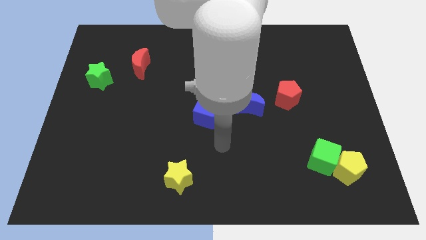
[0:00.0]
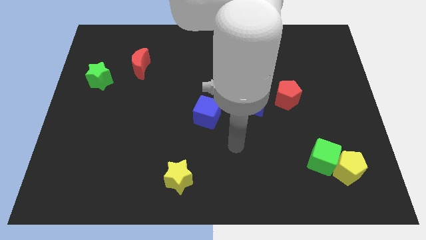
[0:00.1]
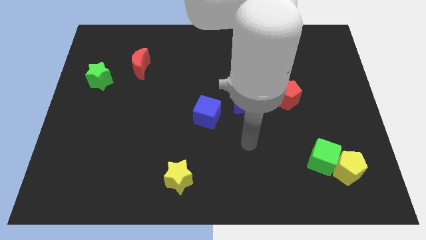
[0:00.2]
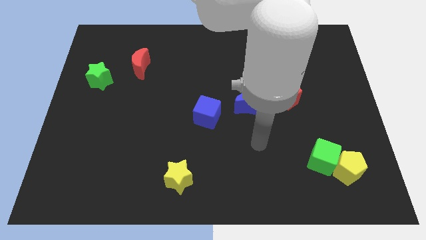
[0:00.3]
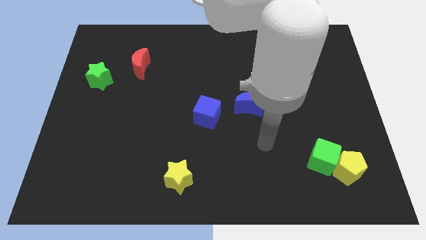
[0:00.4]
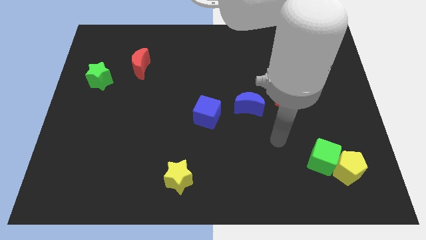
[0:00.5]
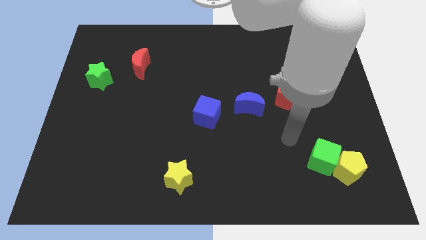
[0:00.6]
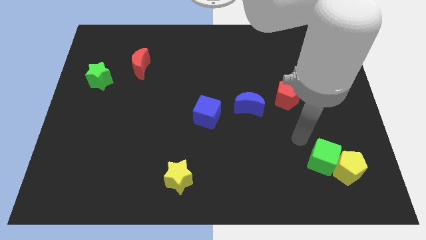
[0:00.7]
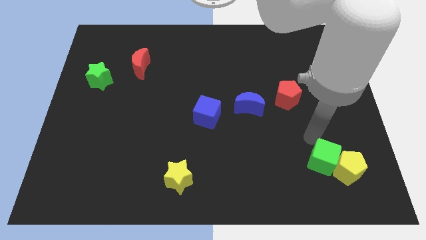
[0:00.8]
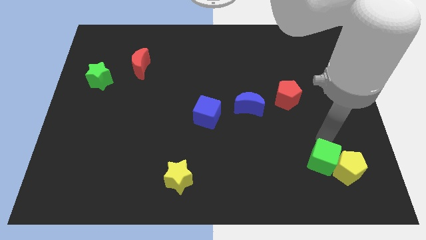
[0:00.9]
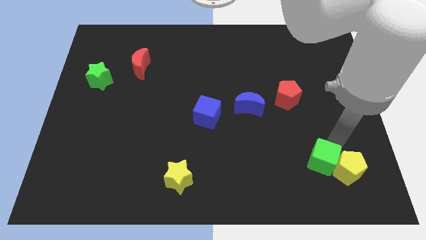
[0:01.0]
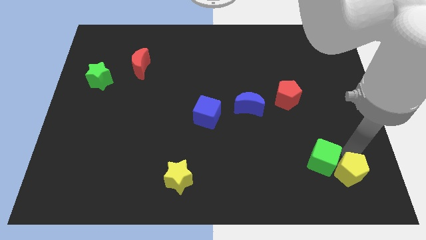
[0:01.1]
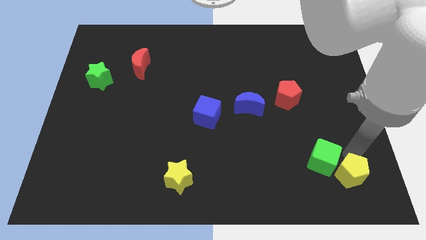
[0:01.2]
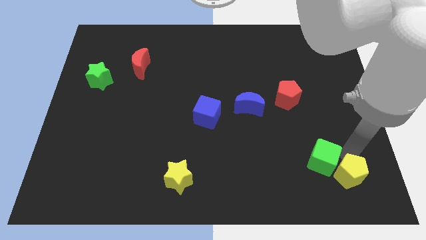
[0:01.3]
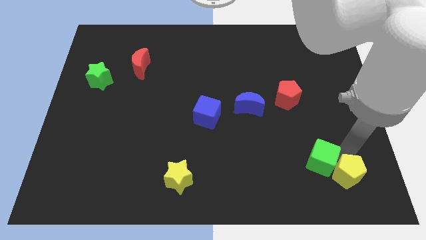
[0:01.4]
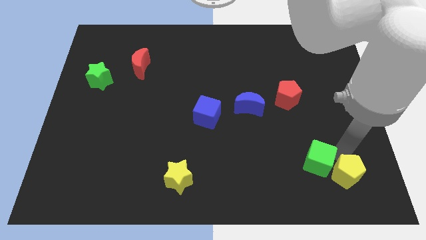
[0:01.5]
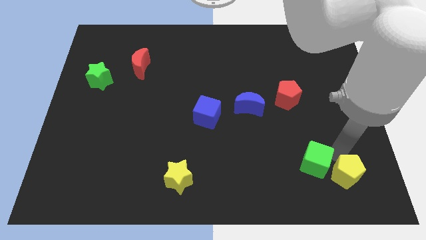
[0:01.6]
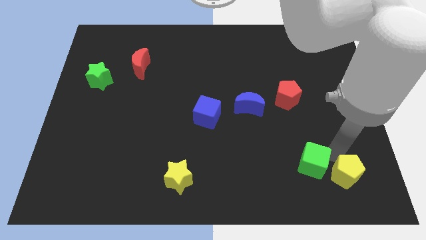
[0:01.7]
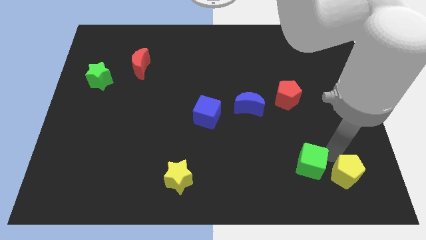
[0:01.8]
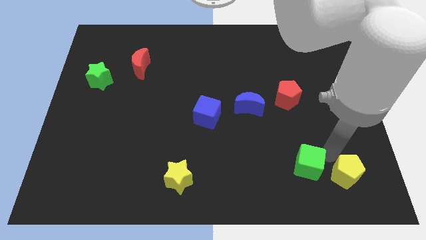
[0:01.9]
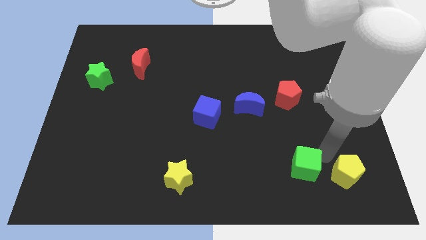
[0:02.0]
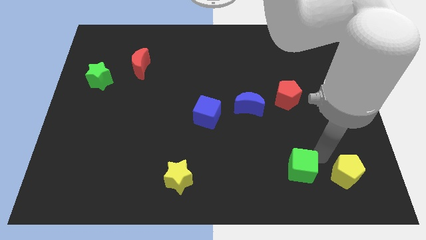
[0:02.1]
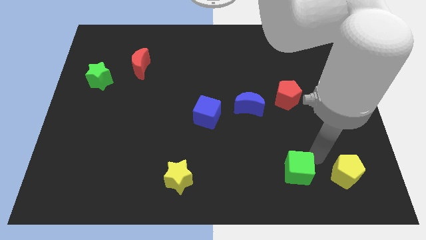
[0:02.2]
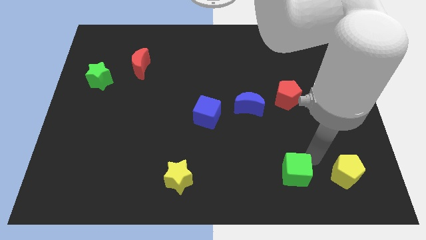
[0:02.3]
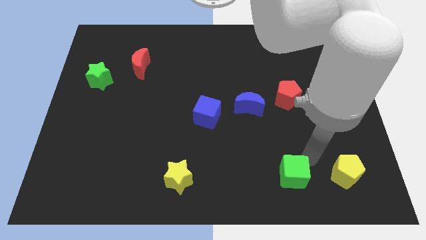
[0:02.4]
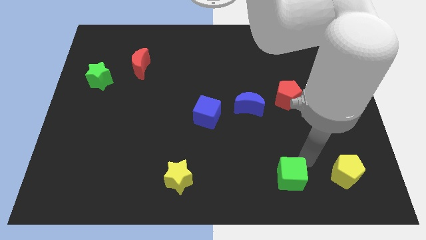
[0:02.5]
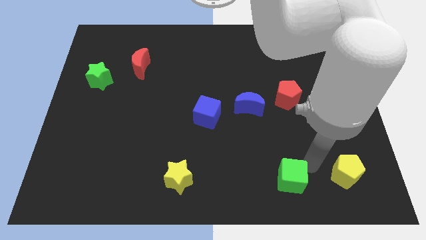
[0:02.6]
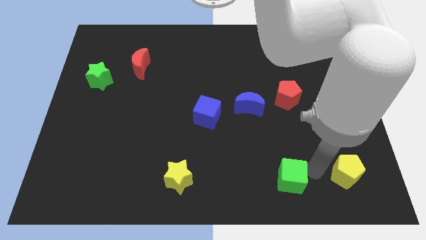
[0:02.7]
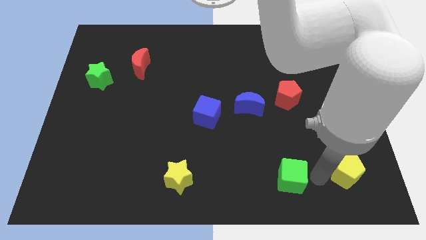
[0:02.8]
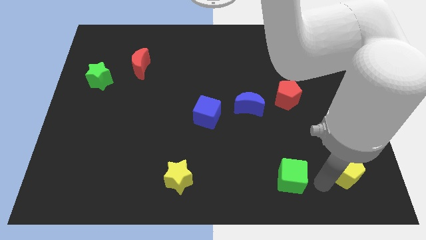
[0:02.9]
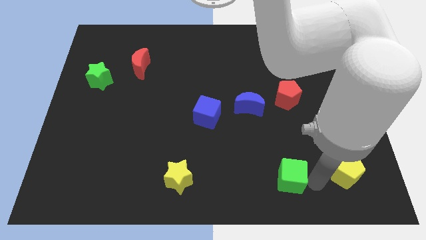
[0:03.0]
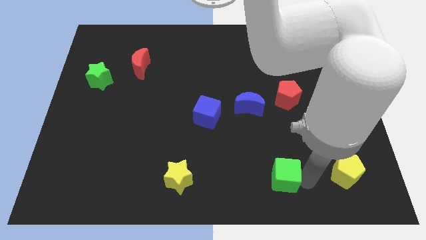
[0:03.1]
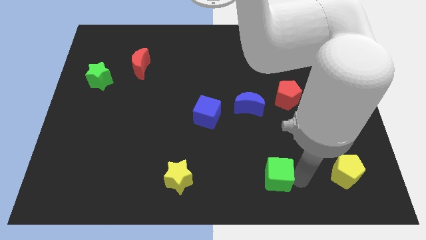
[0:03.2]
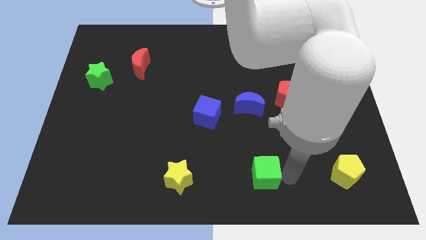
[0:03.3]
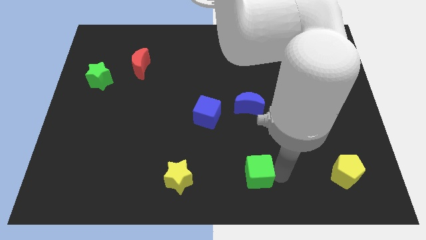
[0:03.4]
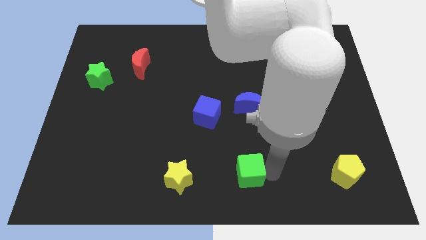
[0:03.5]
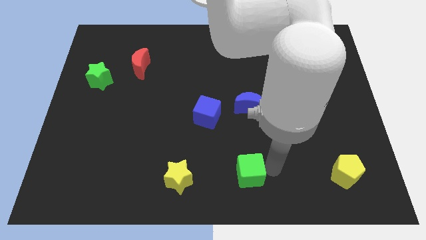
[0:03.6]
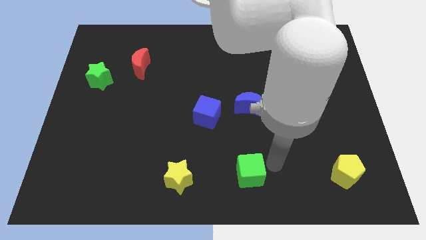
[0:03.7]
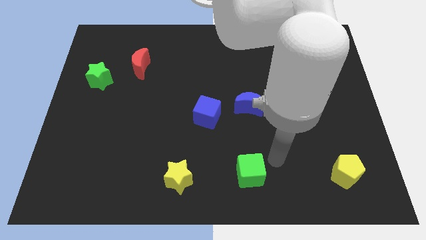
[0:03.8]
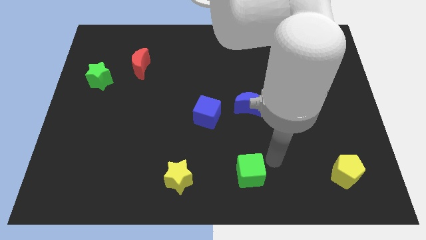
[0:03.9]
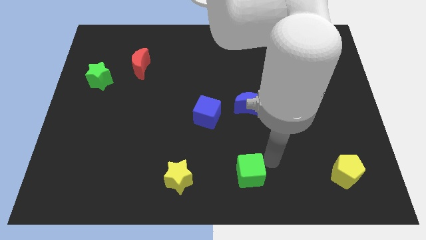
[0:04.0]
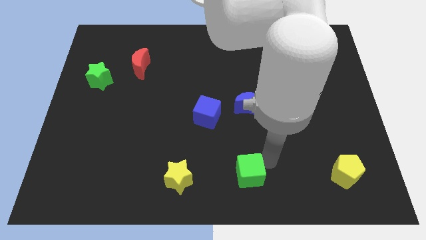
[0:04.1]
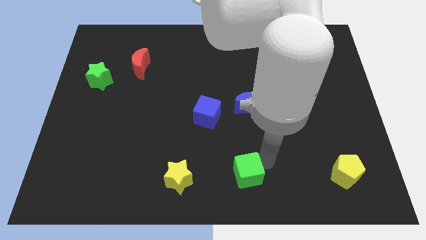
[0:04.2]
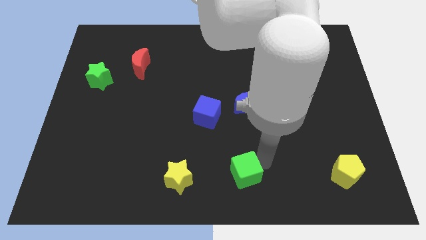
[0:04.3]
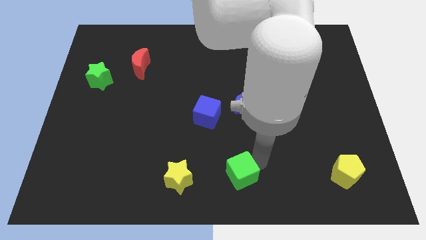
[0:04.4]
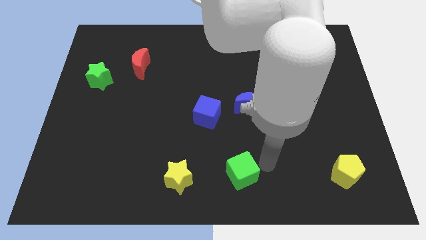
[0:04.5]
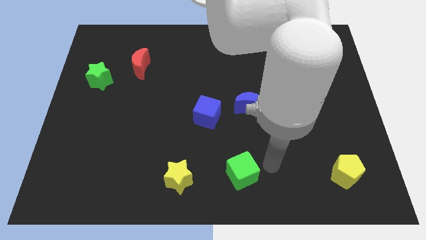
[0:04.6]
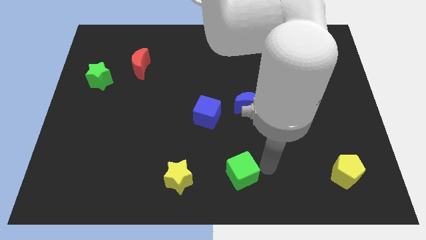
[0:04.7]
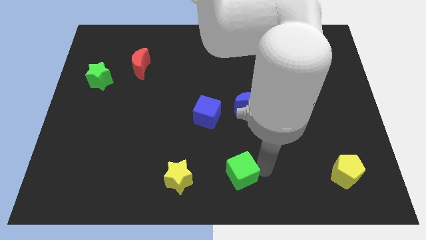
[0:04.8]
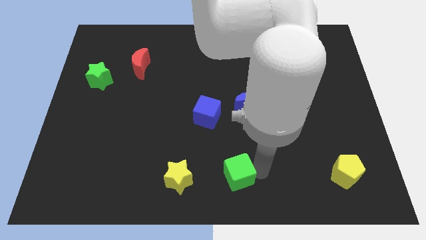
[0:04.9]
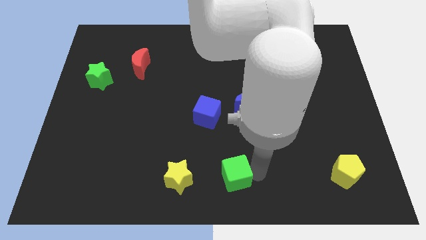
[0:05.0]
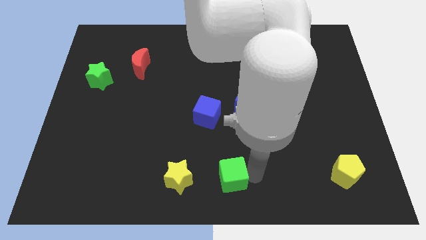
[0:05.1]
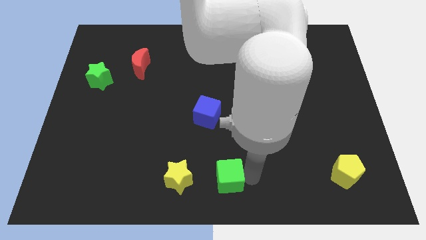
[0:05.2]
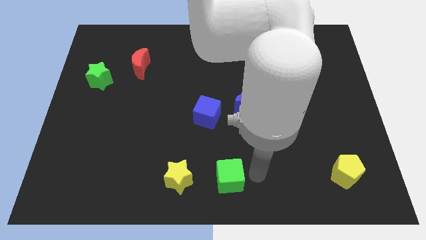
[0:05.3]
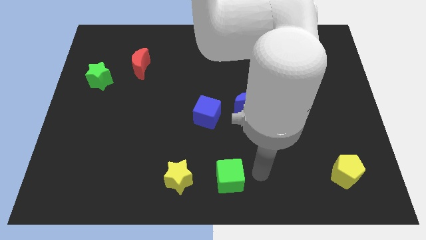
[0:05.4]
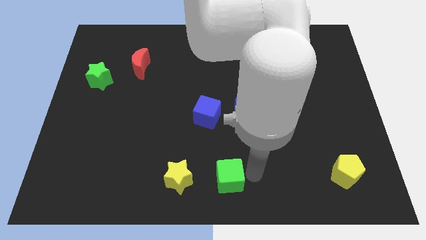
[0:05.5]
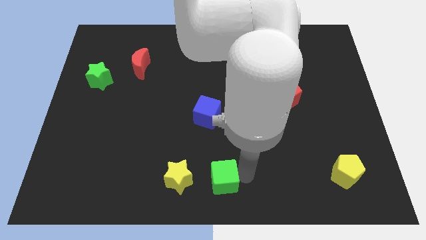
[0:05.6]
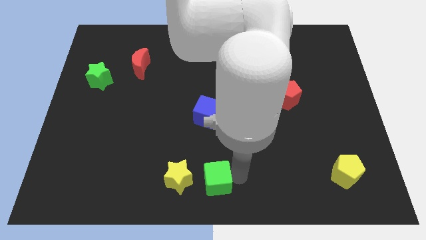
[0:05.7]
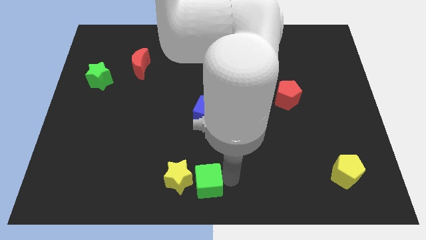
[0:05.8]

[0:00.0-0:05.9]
put the green cube towards the yellow star

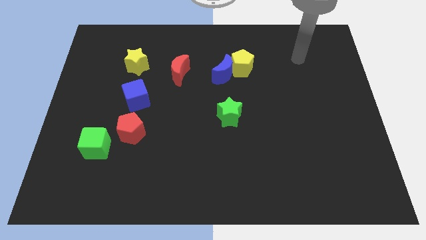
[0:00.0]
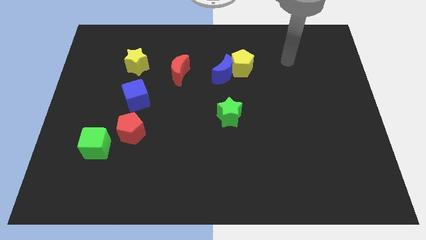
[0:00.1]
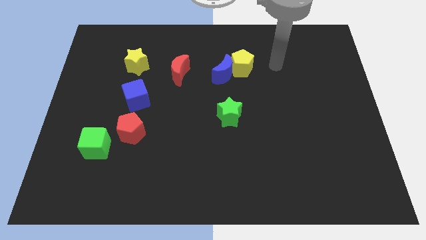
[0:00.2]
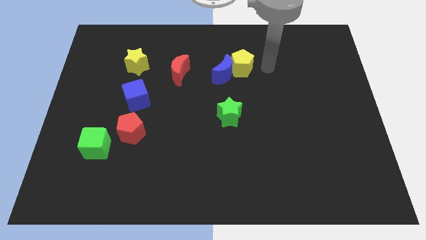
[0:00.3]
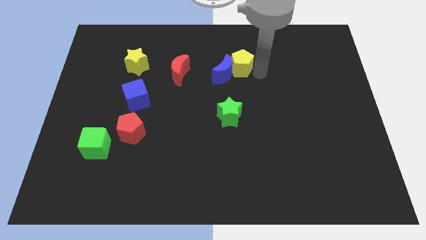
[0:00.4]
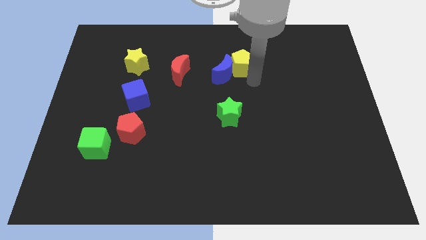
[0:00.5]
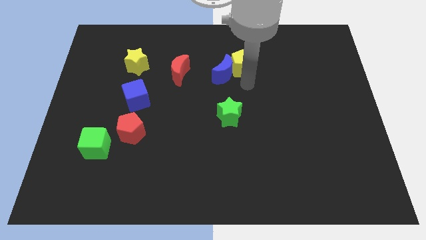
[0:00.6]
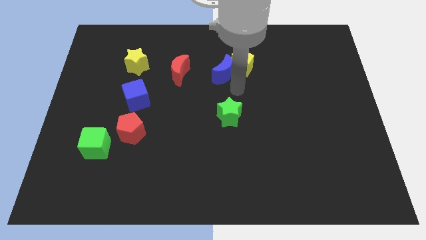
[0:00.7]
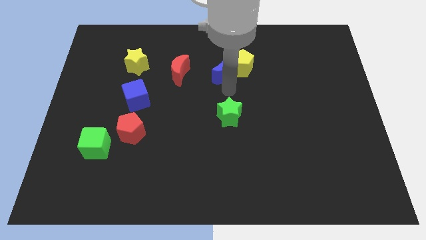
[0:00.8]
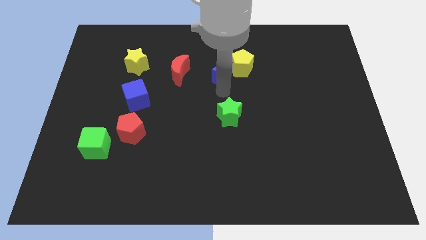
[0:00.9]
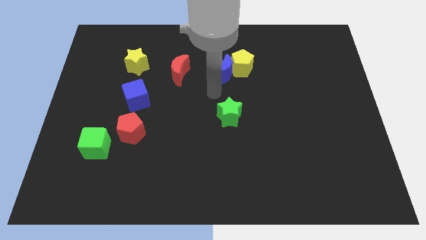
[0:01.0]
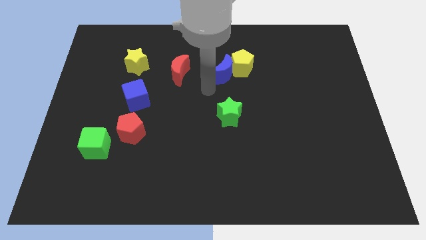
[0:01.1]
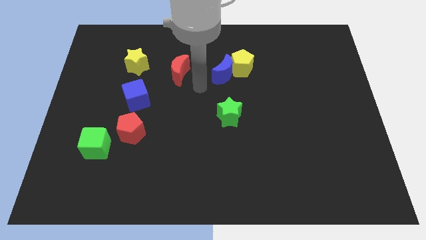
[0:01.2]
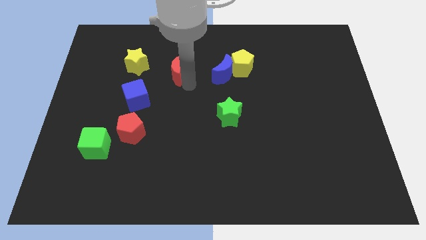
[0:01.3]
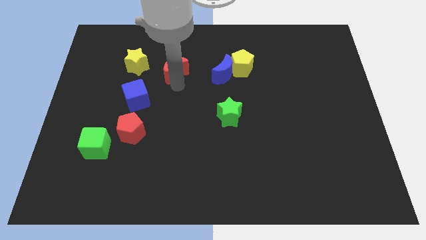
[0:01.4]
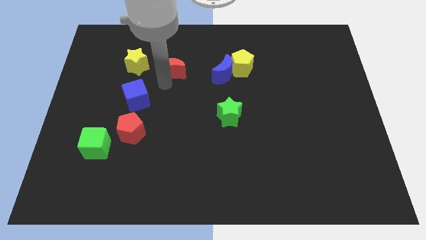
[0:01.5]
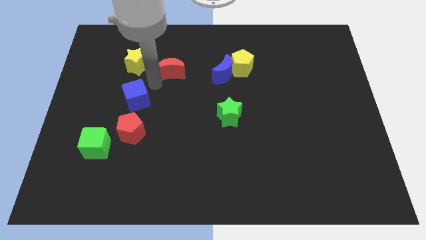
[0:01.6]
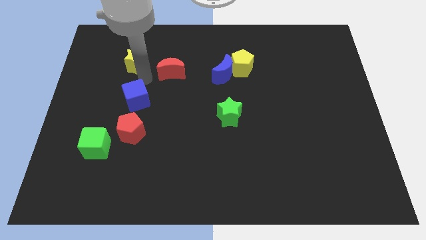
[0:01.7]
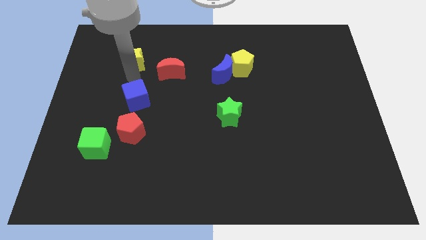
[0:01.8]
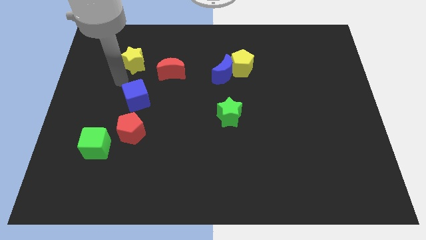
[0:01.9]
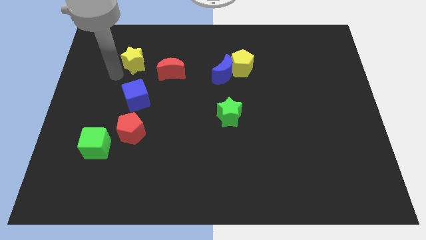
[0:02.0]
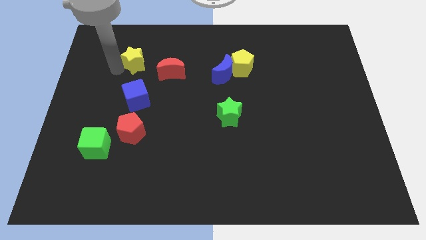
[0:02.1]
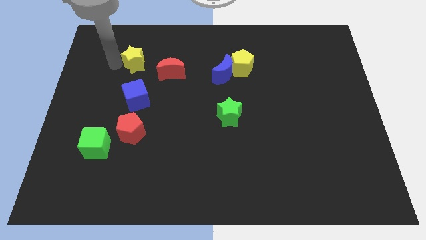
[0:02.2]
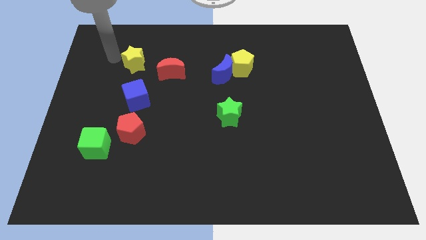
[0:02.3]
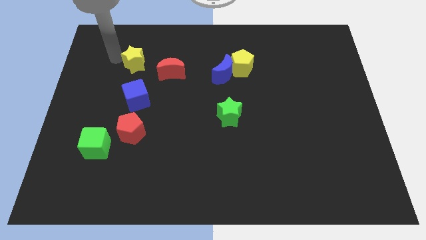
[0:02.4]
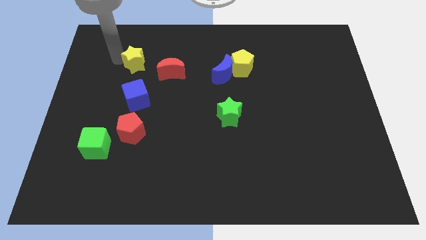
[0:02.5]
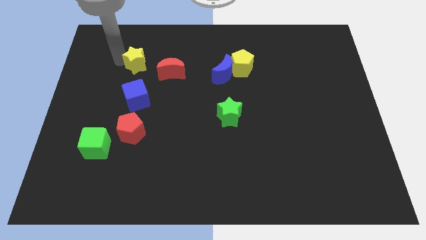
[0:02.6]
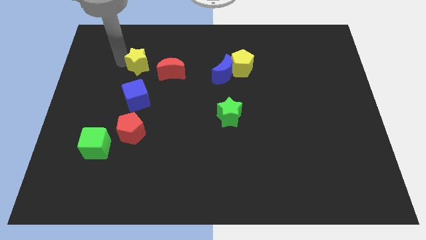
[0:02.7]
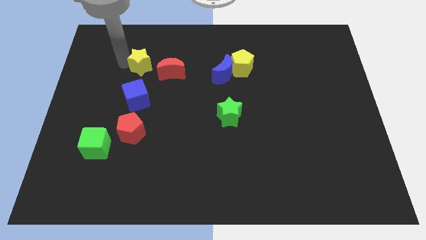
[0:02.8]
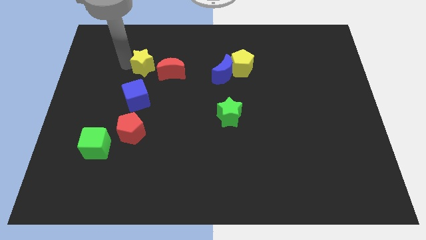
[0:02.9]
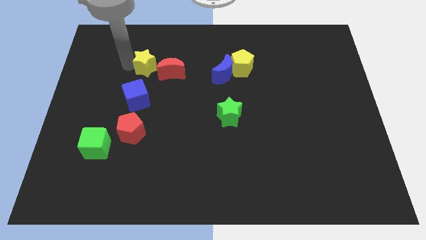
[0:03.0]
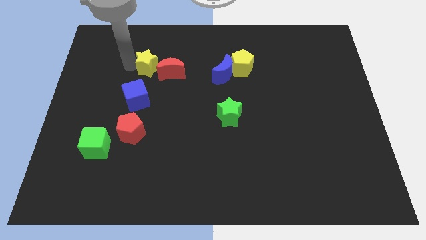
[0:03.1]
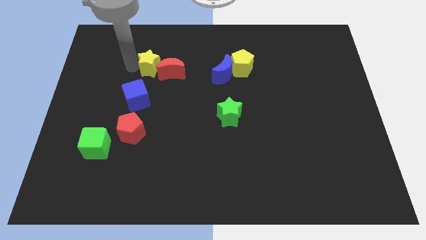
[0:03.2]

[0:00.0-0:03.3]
push the yellow star towards the red moon
